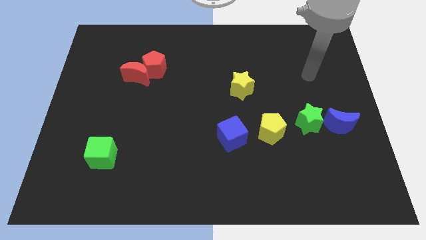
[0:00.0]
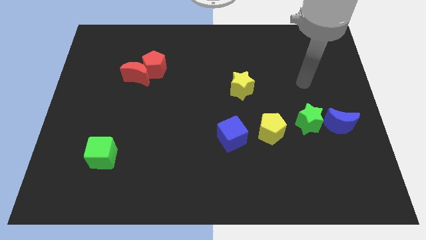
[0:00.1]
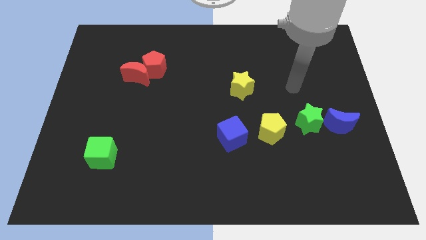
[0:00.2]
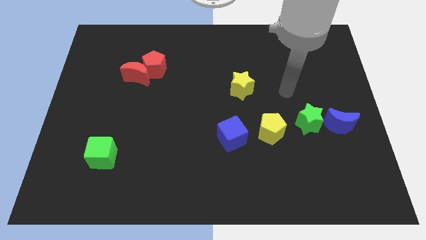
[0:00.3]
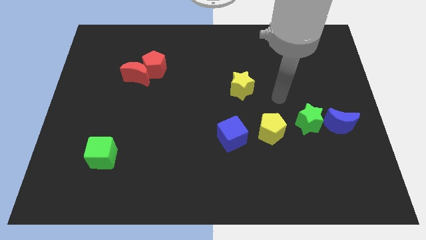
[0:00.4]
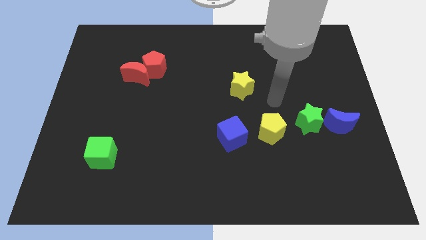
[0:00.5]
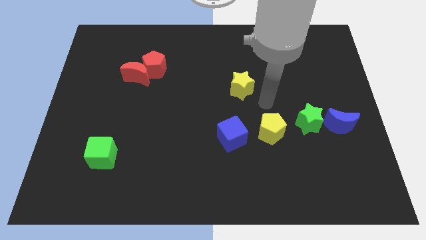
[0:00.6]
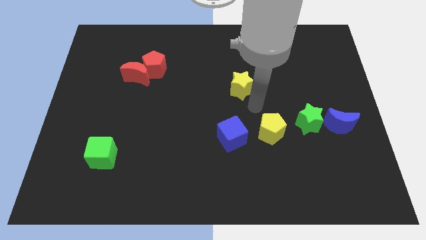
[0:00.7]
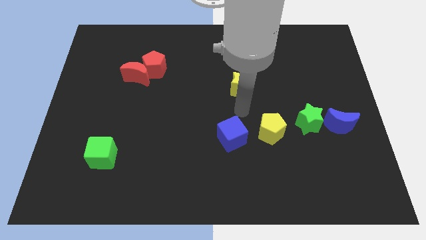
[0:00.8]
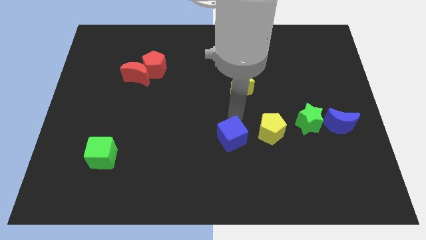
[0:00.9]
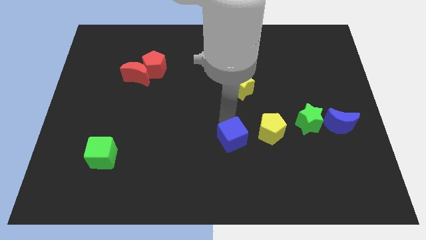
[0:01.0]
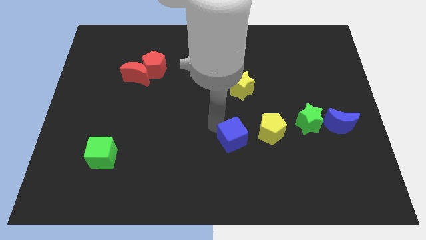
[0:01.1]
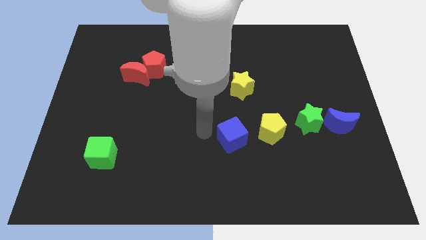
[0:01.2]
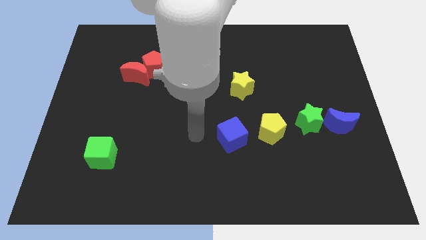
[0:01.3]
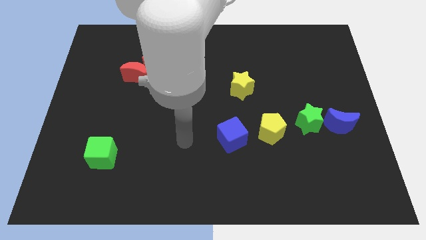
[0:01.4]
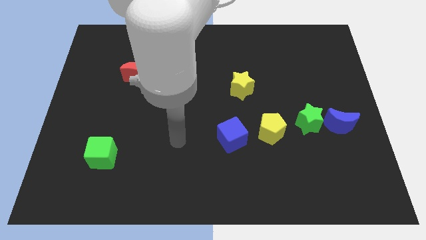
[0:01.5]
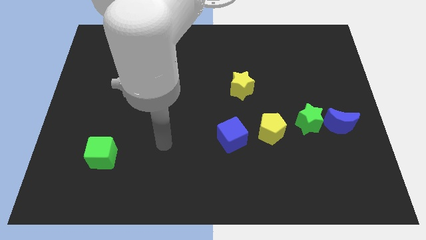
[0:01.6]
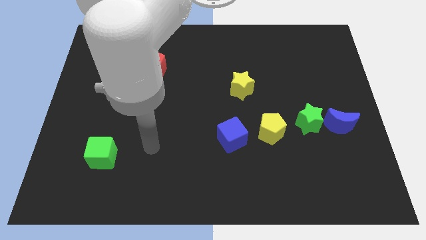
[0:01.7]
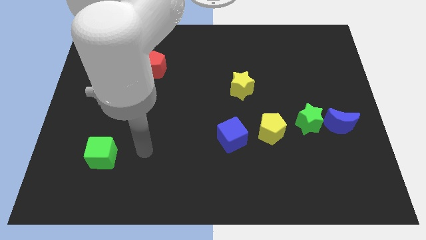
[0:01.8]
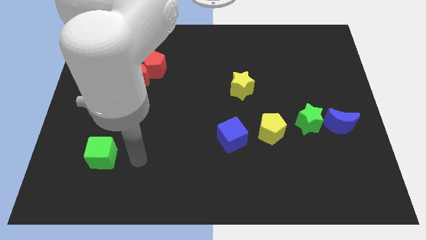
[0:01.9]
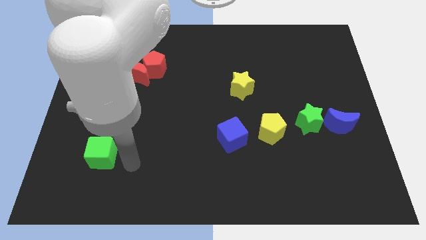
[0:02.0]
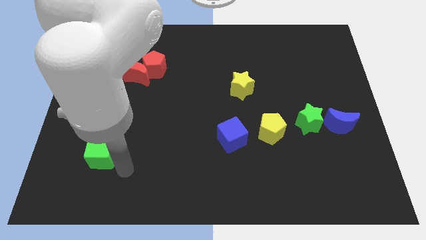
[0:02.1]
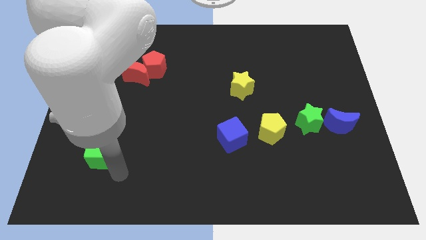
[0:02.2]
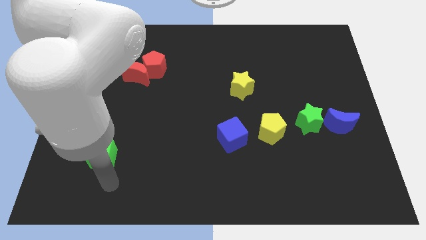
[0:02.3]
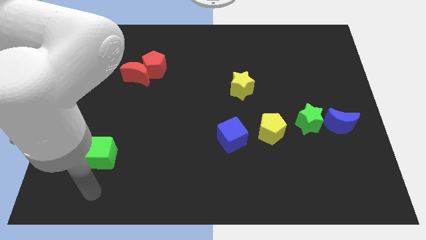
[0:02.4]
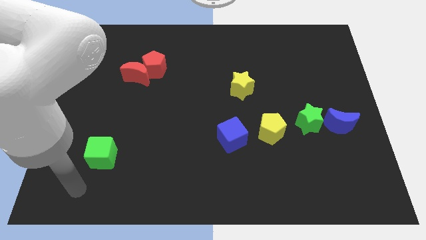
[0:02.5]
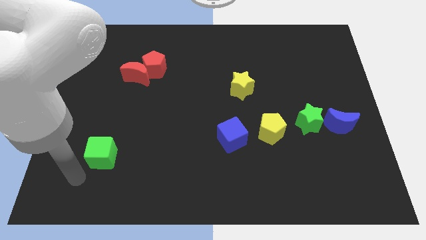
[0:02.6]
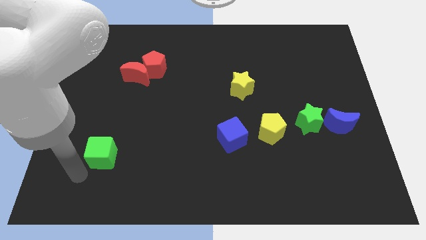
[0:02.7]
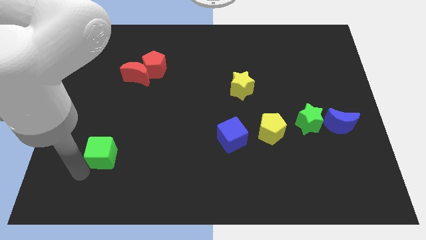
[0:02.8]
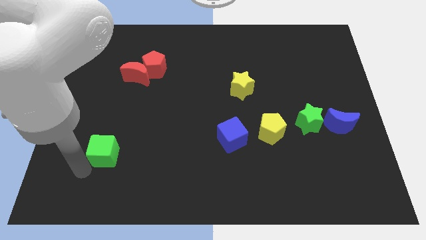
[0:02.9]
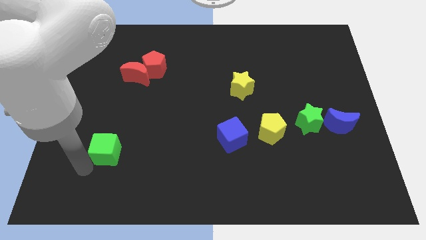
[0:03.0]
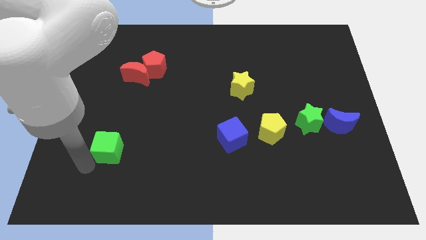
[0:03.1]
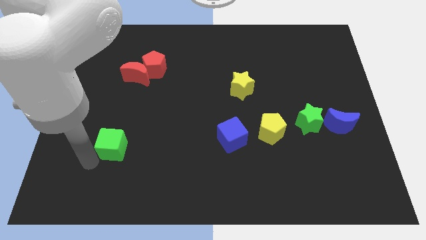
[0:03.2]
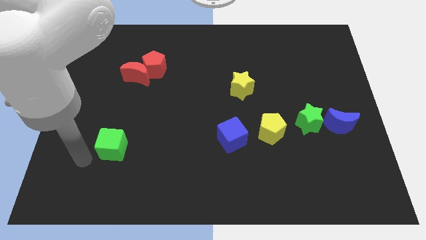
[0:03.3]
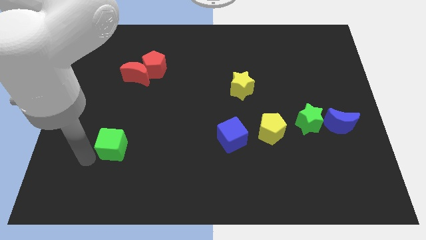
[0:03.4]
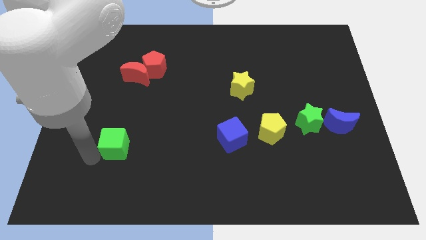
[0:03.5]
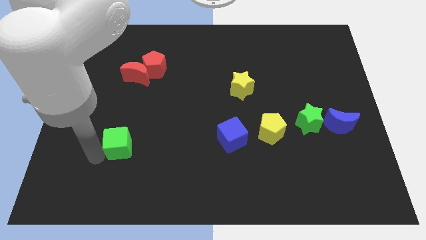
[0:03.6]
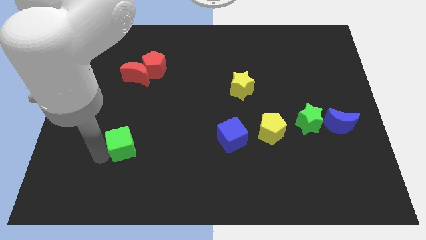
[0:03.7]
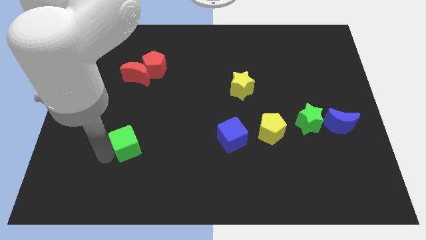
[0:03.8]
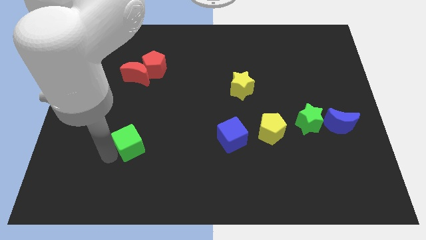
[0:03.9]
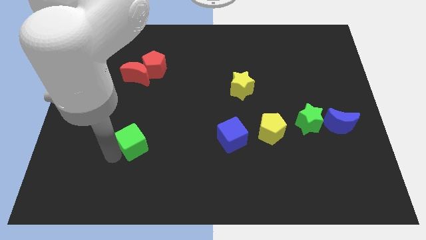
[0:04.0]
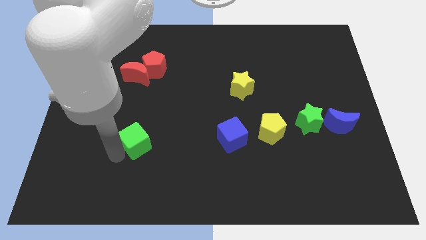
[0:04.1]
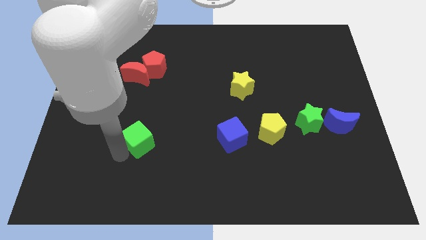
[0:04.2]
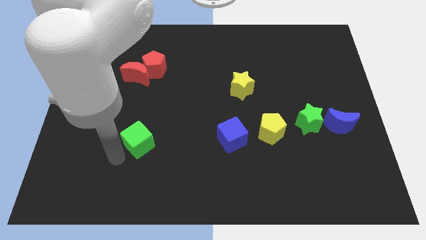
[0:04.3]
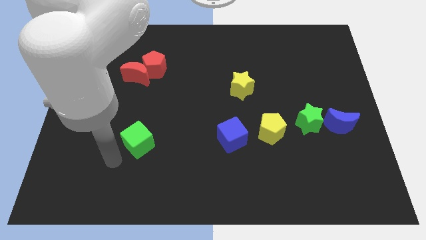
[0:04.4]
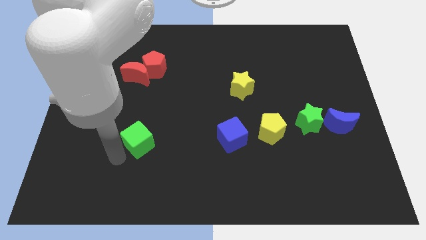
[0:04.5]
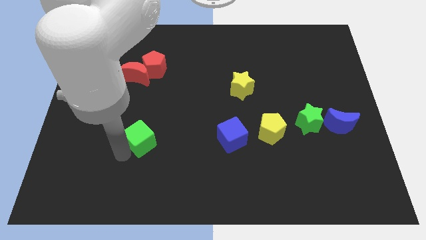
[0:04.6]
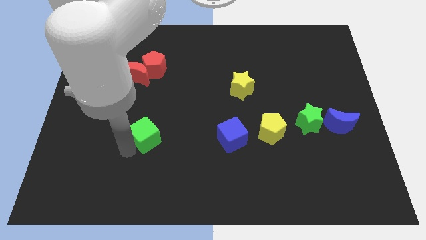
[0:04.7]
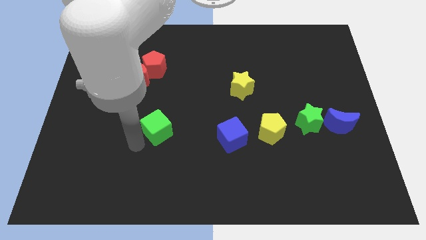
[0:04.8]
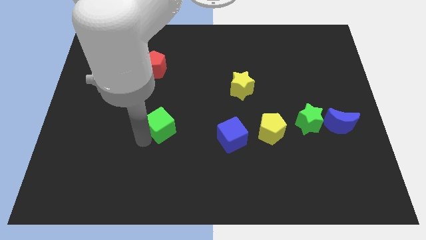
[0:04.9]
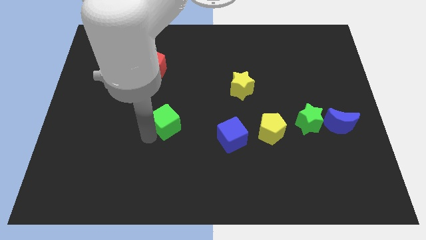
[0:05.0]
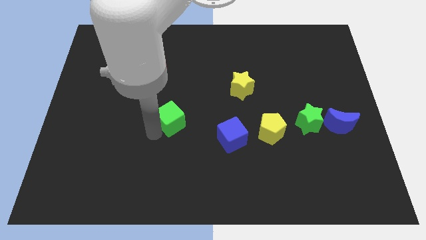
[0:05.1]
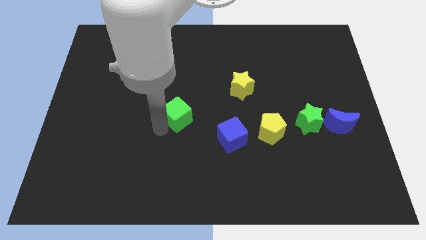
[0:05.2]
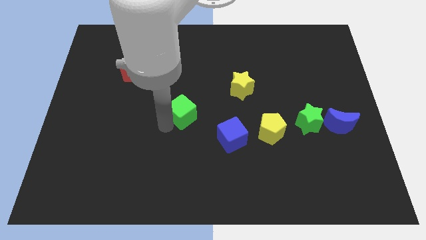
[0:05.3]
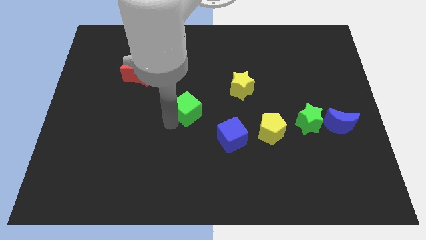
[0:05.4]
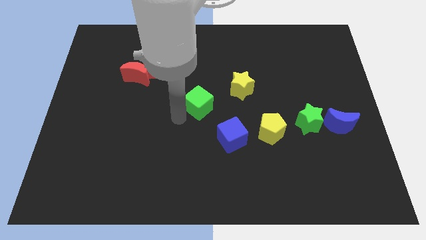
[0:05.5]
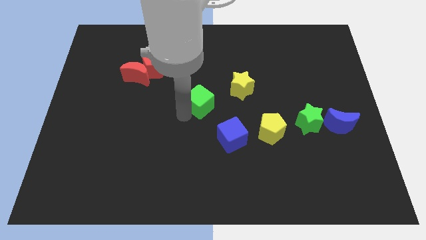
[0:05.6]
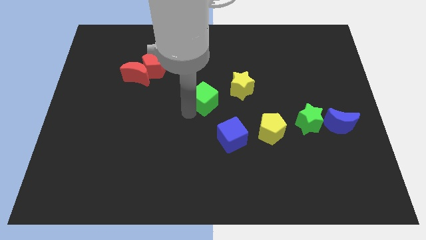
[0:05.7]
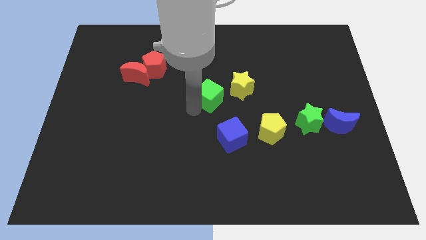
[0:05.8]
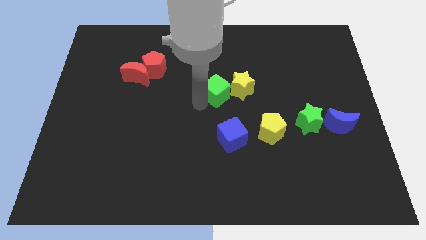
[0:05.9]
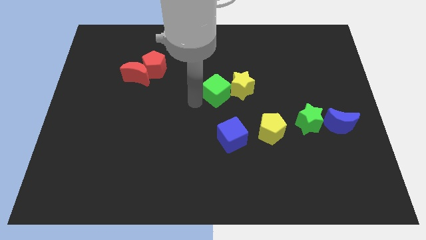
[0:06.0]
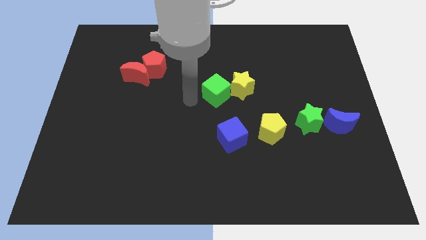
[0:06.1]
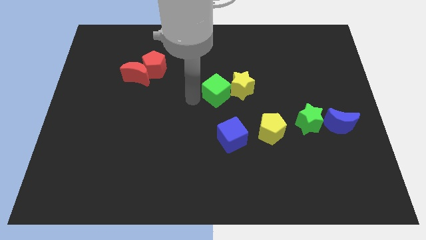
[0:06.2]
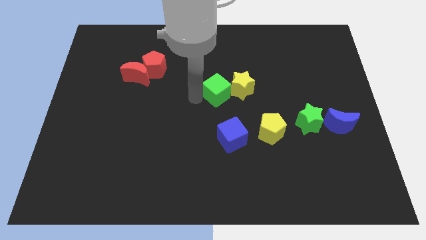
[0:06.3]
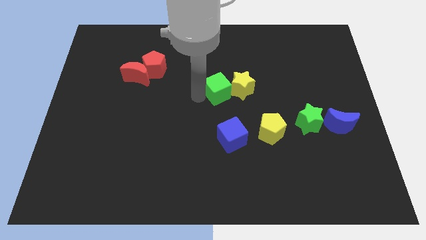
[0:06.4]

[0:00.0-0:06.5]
slide the green cube to the yellow star

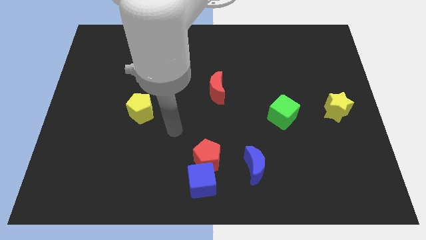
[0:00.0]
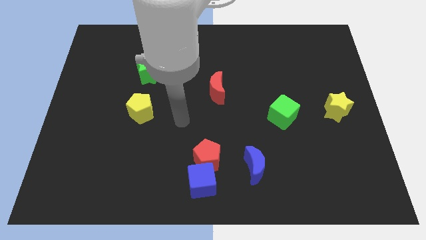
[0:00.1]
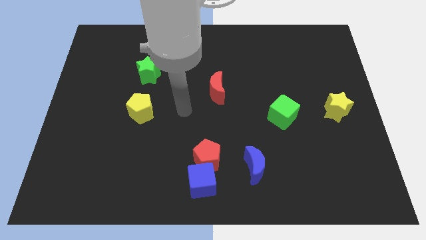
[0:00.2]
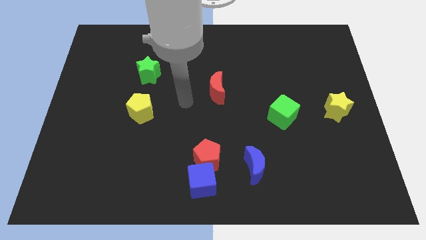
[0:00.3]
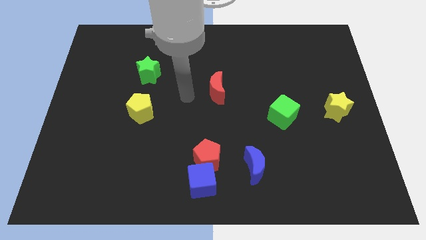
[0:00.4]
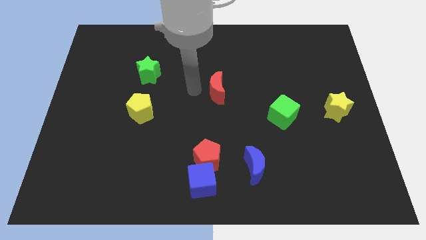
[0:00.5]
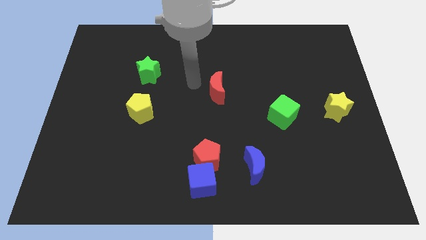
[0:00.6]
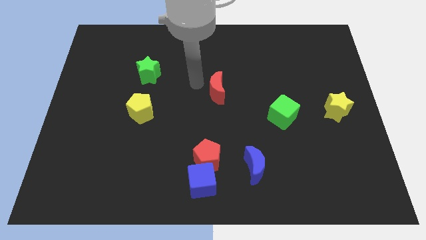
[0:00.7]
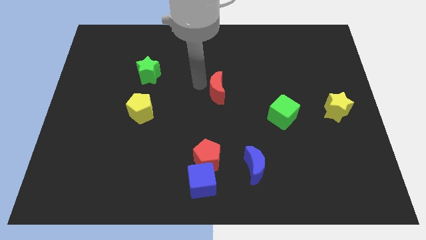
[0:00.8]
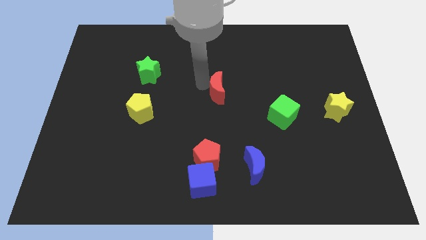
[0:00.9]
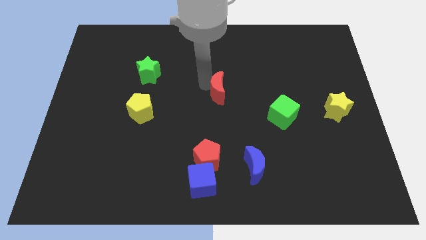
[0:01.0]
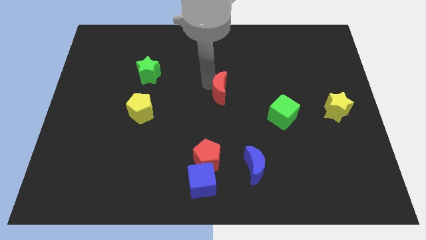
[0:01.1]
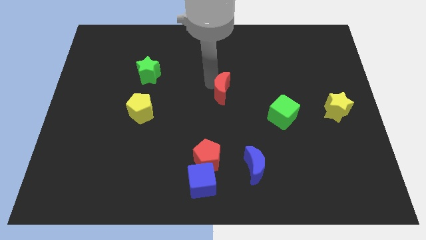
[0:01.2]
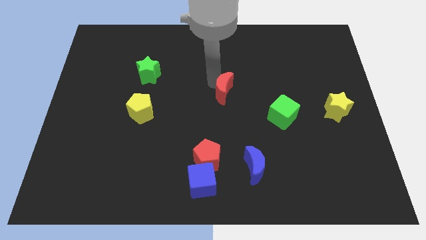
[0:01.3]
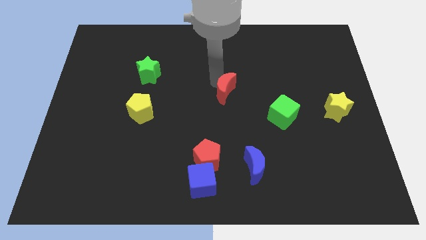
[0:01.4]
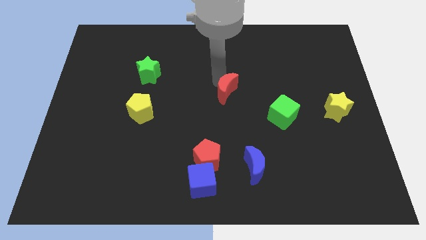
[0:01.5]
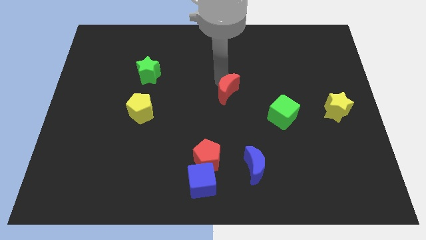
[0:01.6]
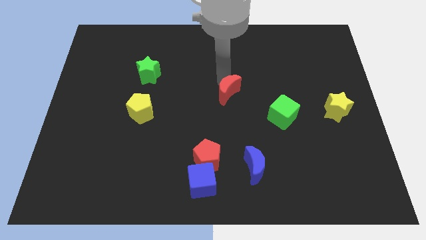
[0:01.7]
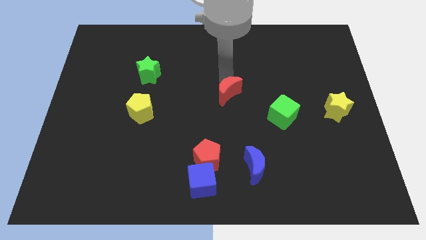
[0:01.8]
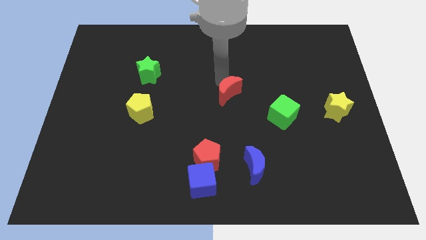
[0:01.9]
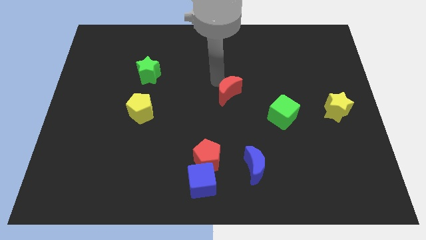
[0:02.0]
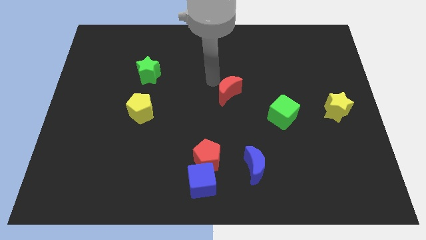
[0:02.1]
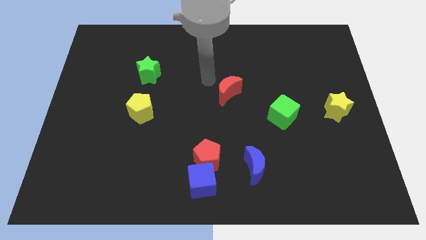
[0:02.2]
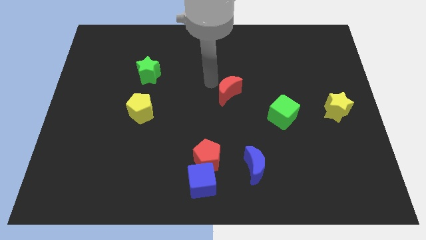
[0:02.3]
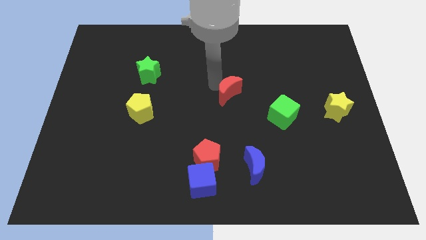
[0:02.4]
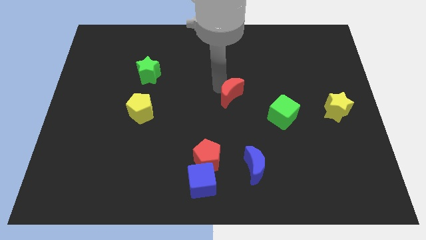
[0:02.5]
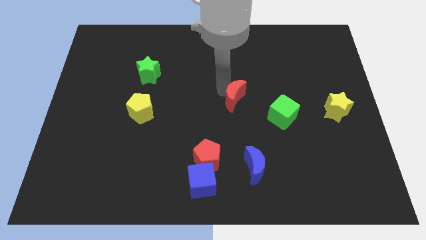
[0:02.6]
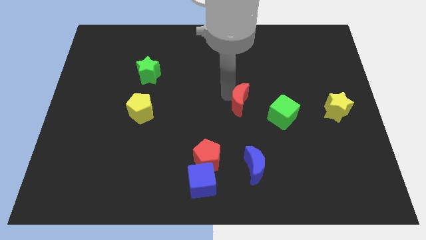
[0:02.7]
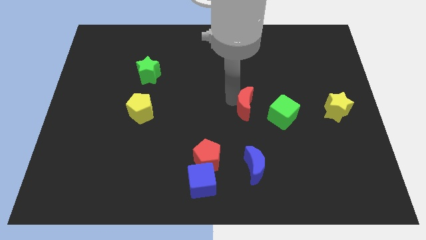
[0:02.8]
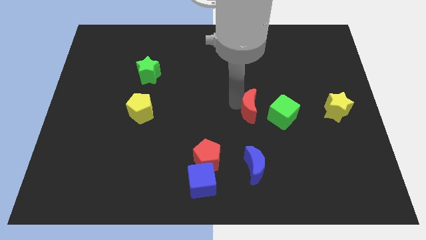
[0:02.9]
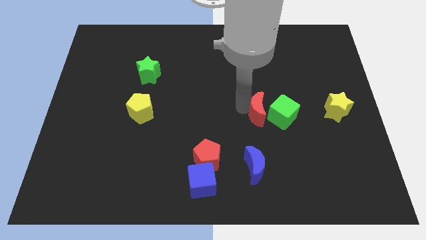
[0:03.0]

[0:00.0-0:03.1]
push the red moon to the green cube
